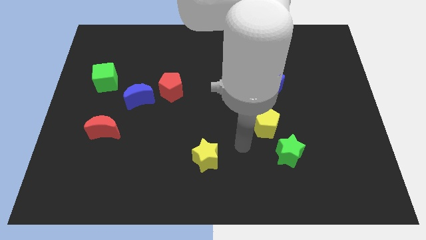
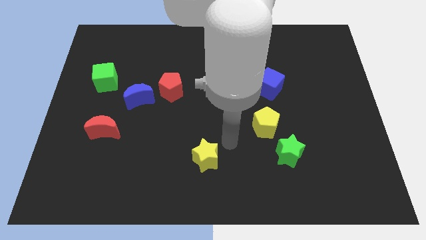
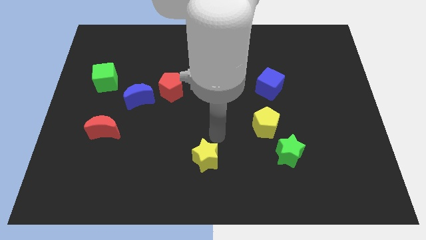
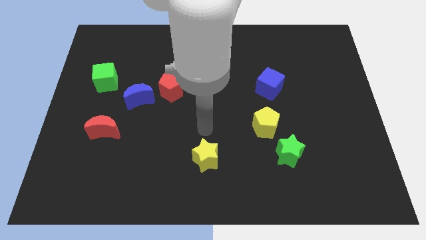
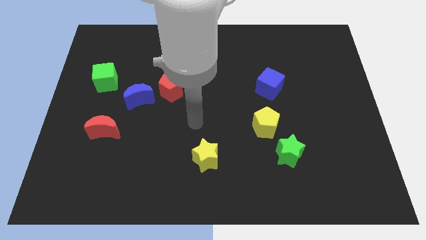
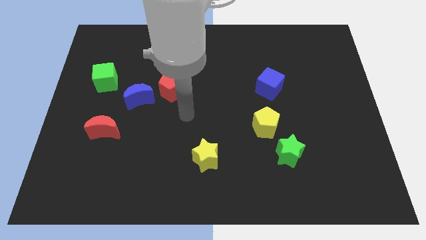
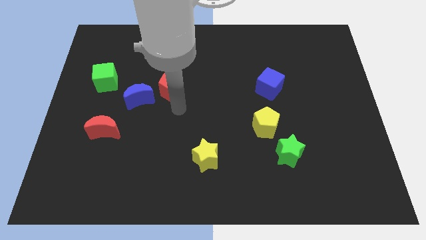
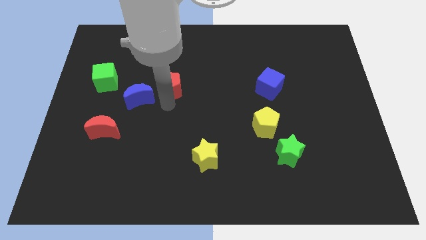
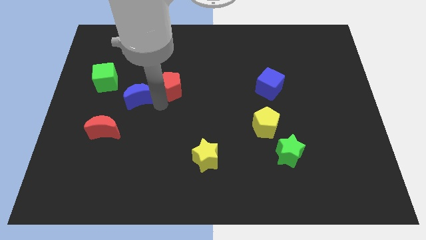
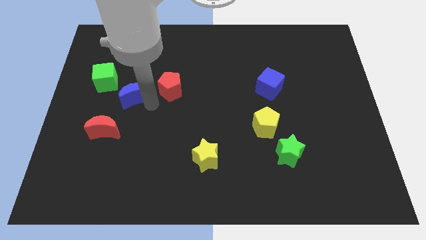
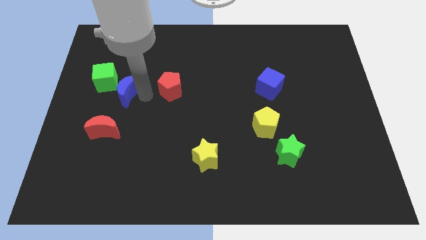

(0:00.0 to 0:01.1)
move the red pentagon away from the blue moon

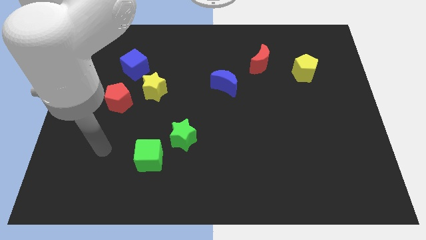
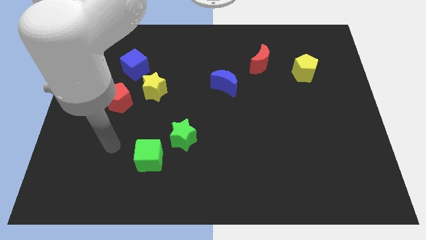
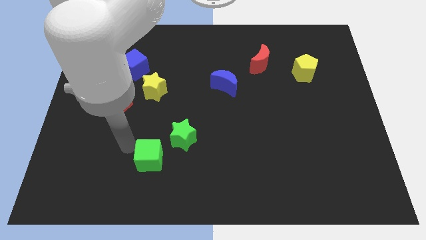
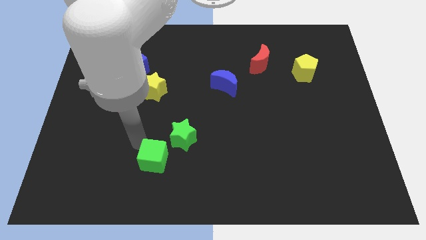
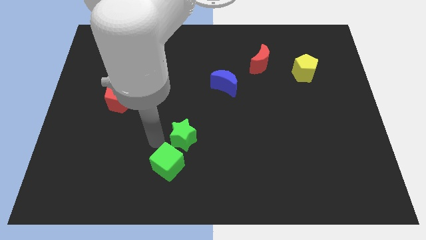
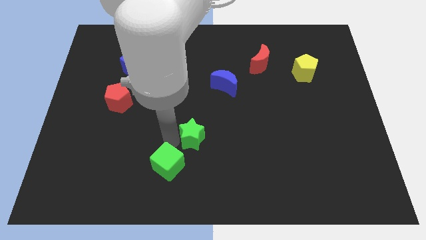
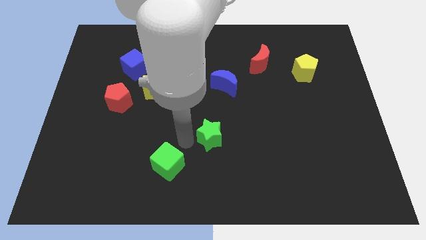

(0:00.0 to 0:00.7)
separate the green cube from the green star

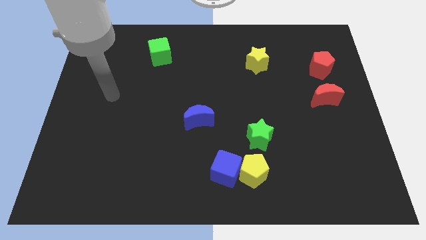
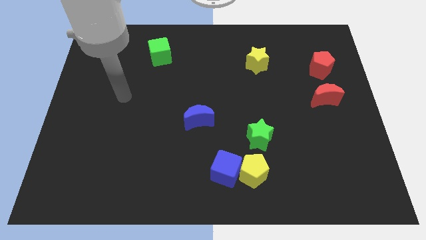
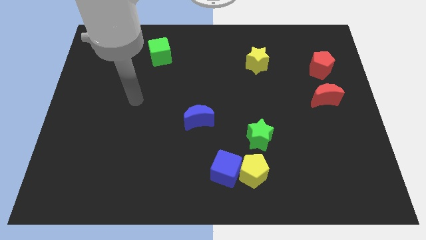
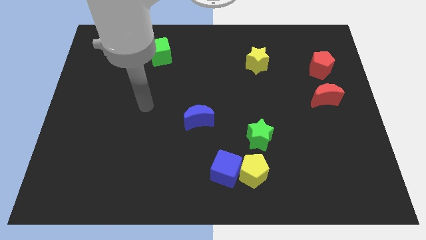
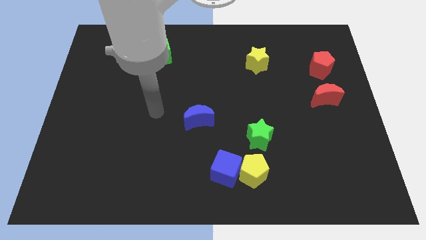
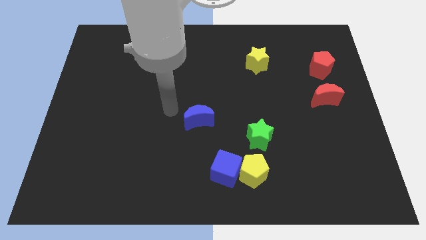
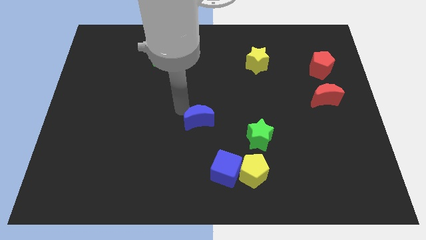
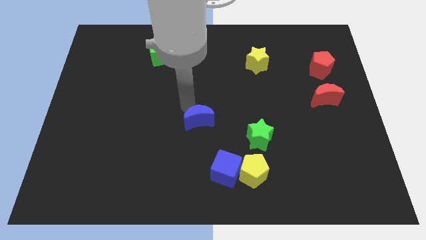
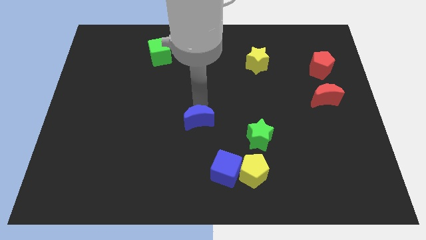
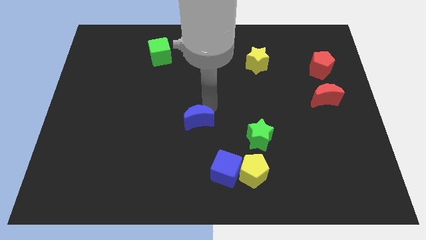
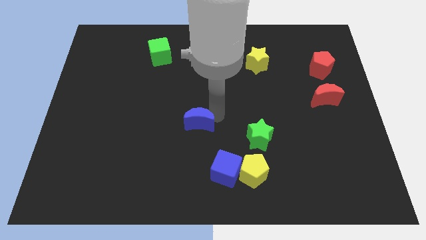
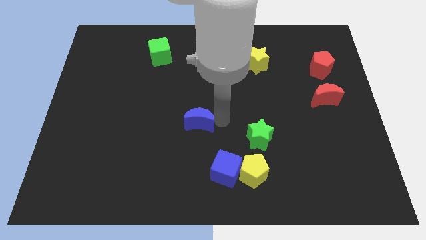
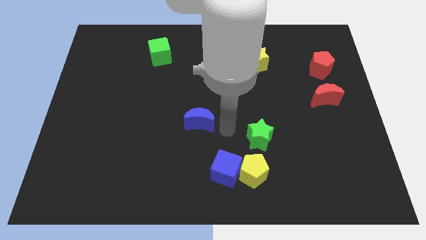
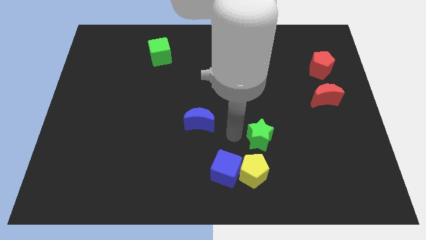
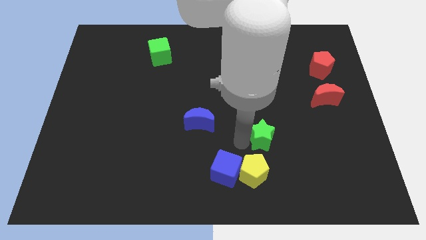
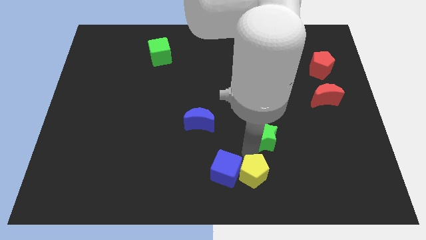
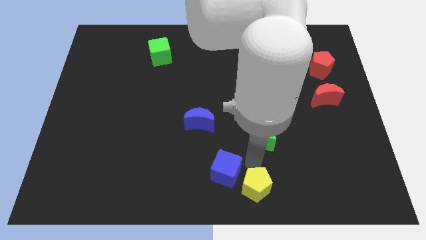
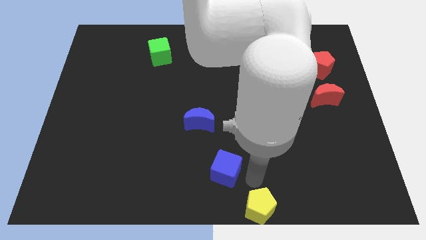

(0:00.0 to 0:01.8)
separate the blue cube from the yellow pentagon

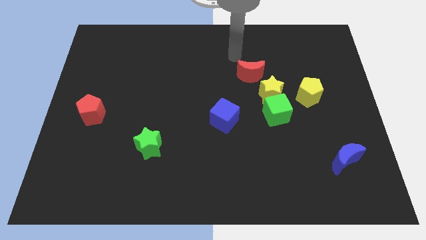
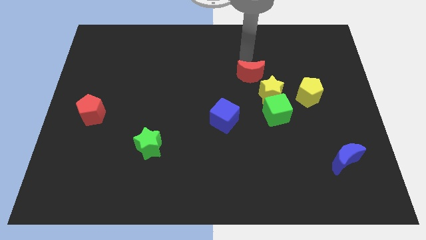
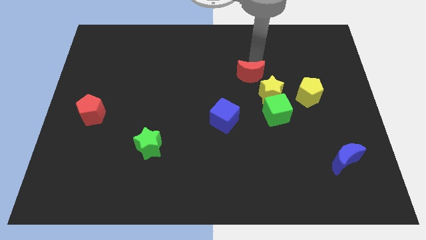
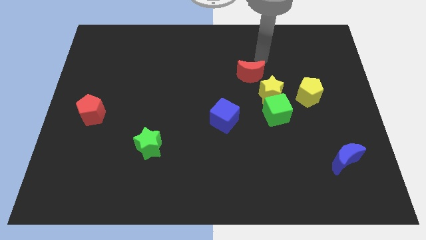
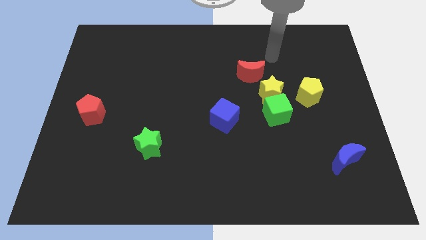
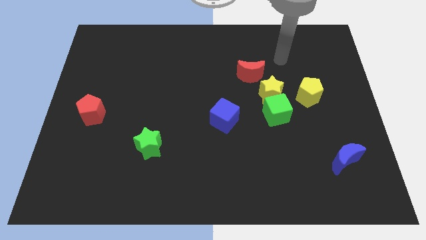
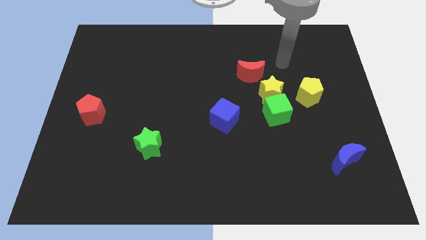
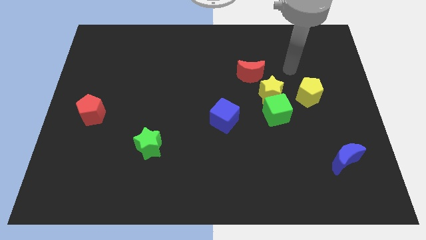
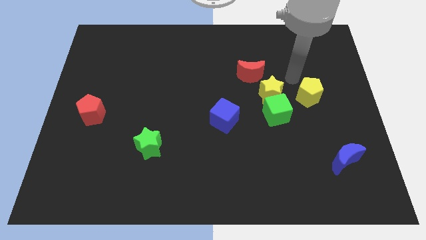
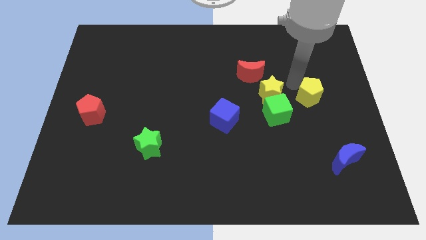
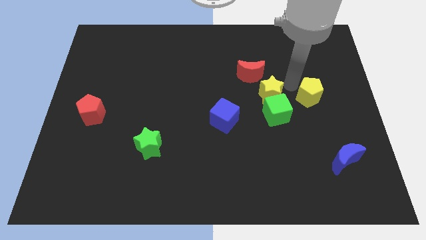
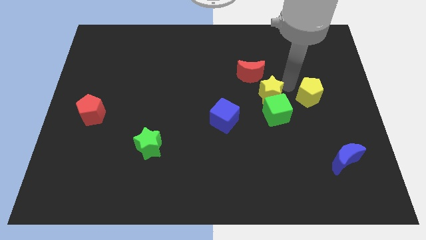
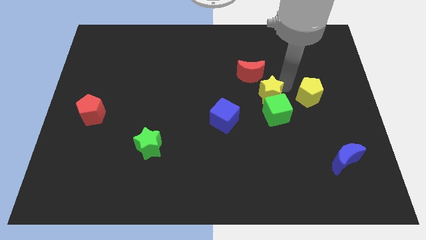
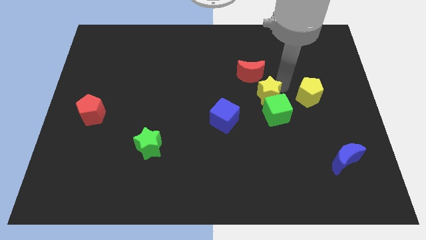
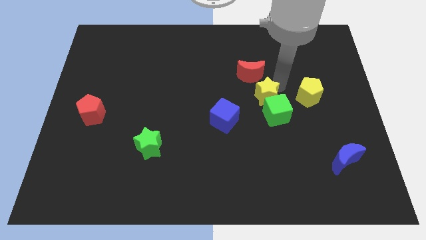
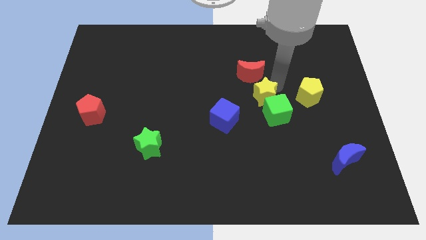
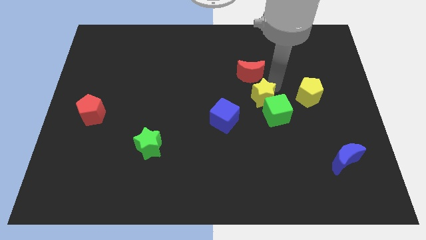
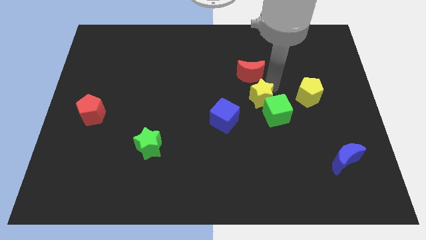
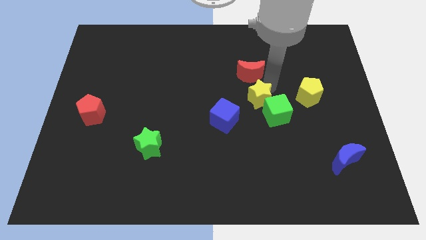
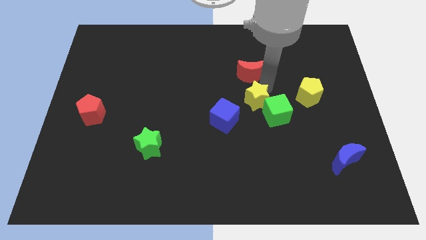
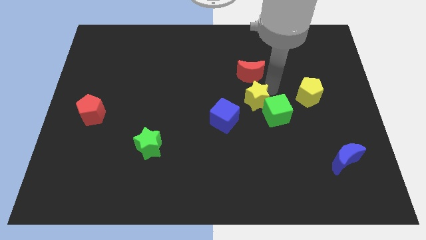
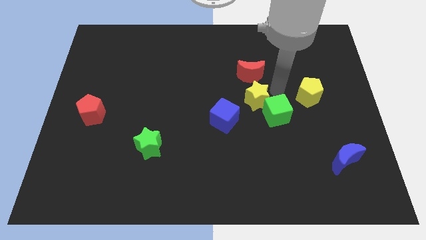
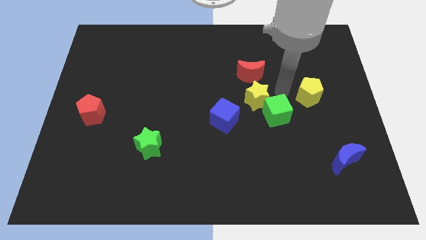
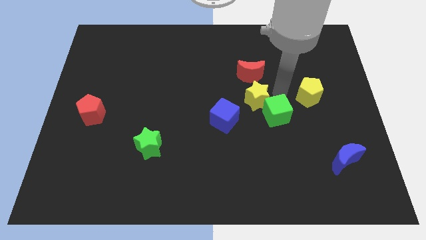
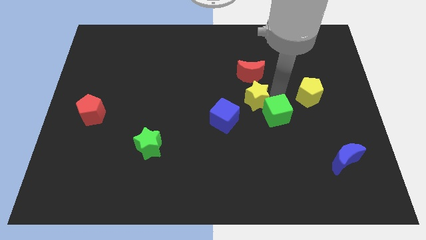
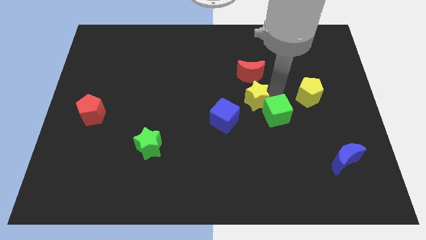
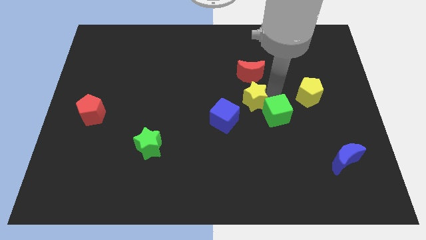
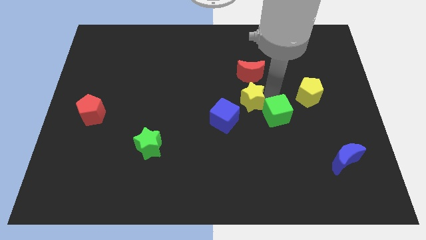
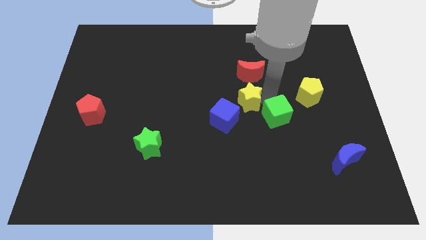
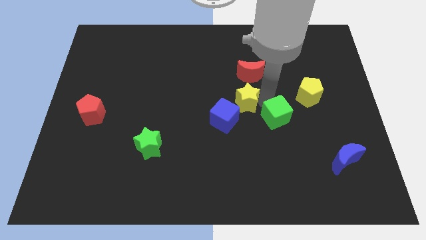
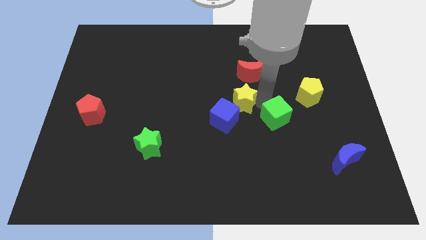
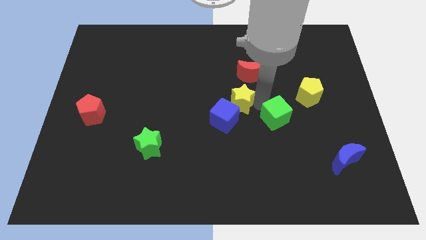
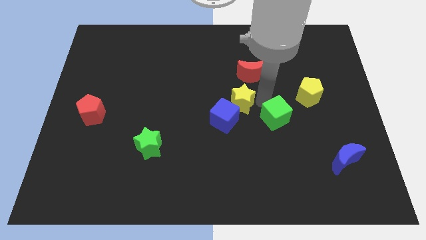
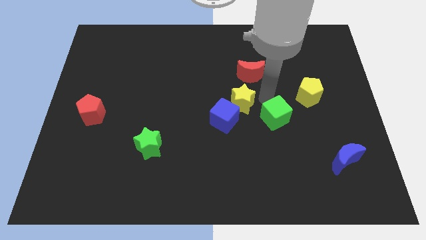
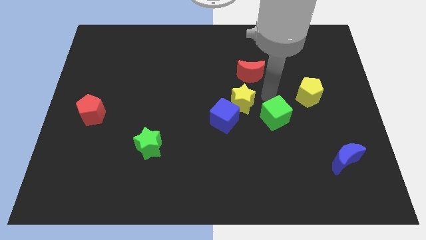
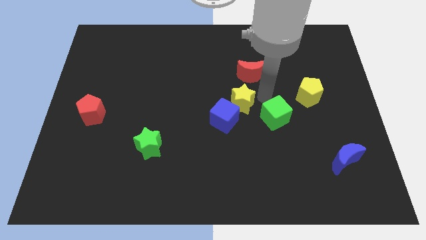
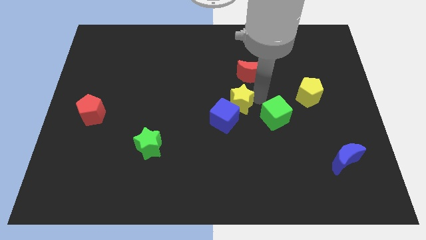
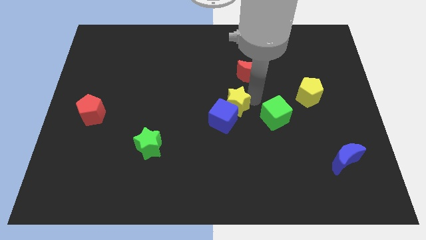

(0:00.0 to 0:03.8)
separate the yellow star from the green cube, red moon, and yellow pentagon

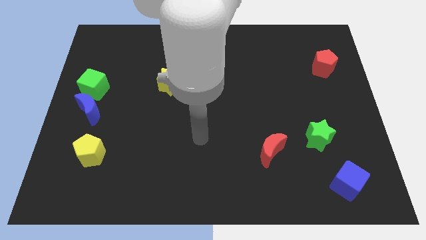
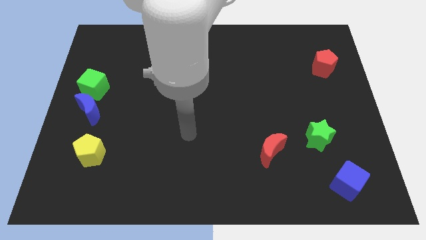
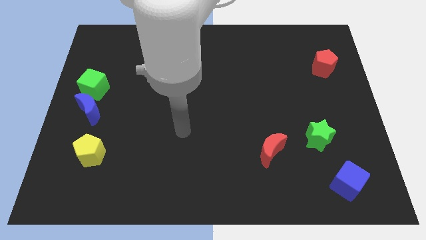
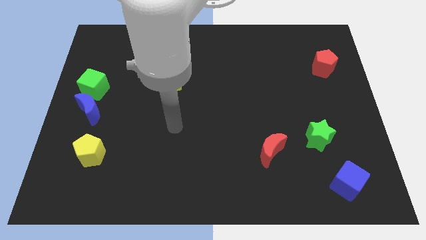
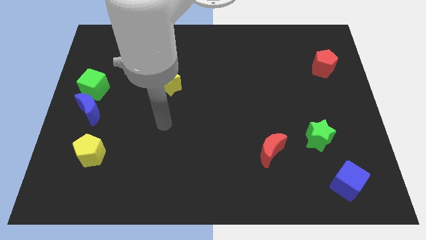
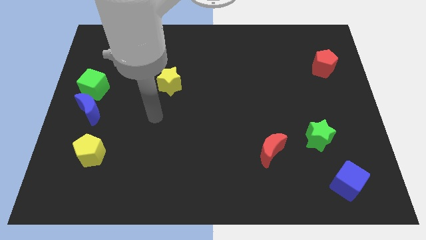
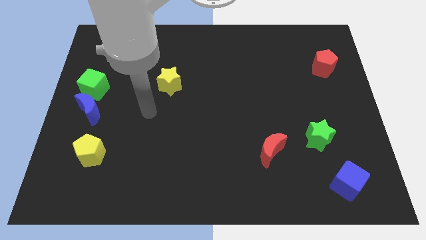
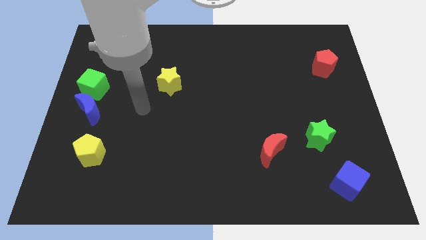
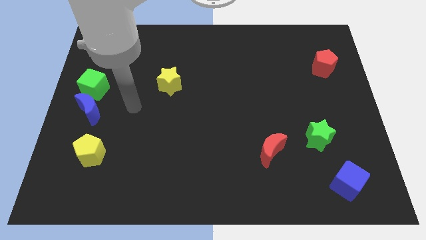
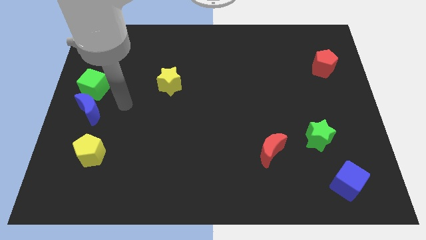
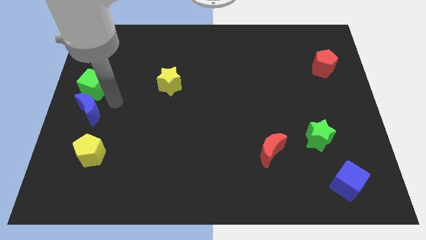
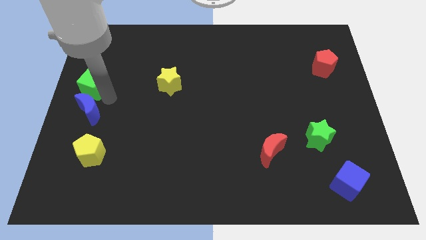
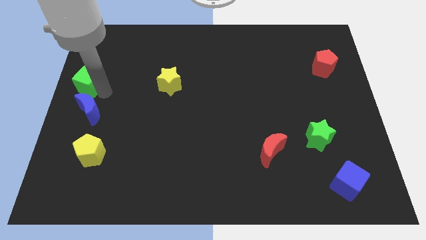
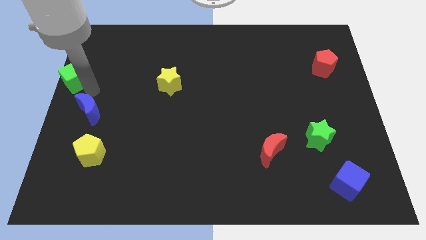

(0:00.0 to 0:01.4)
move the blue moon away from the green cube

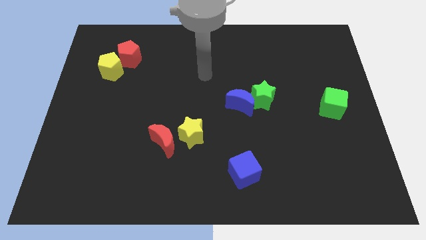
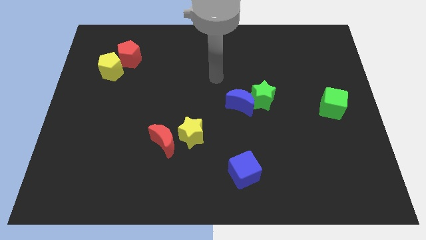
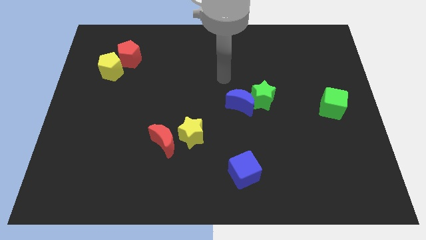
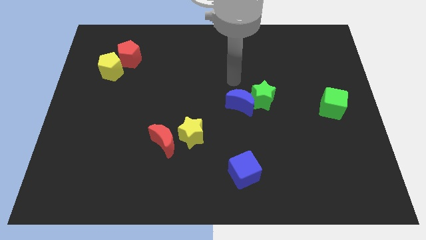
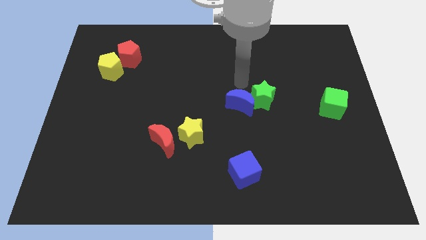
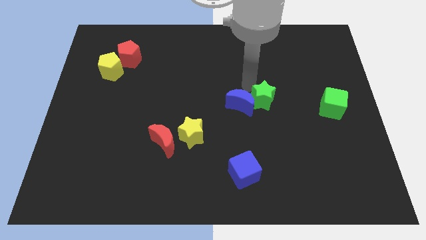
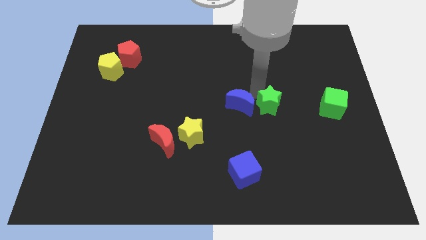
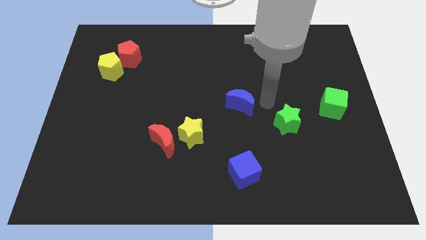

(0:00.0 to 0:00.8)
move the blue moon away from the green star
